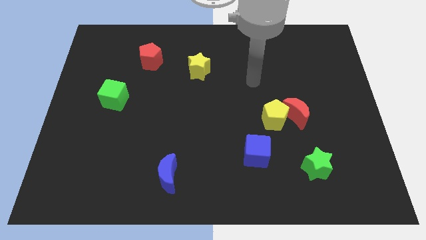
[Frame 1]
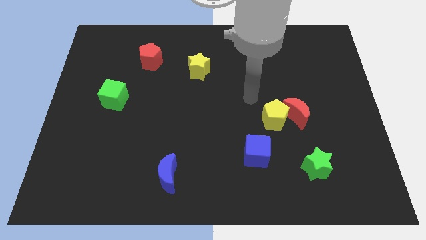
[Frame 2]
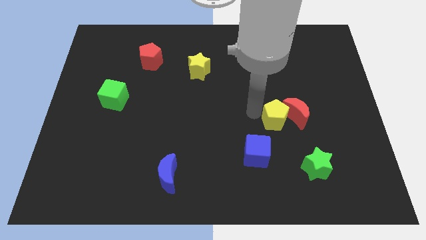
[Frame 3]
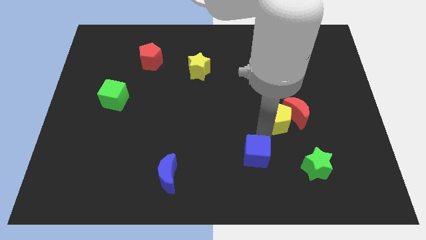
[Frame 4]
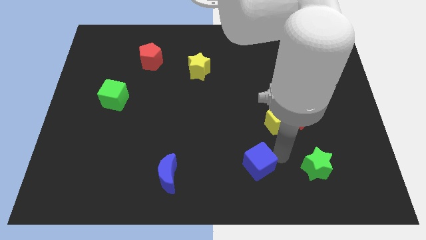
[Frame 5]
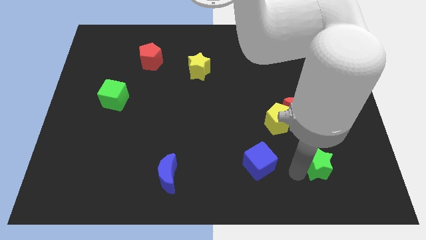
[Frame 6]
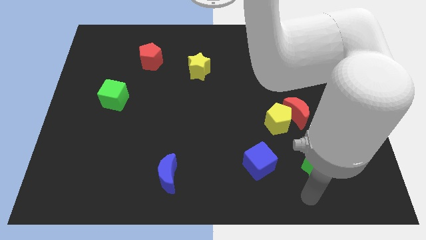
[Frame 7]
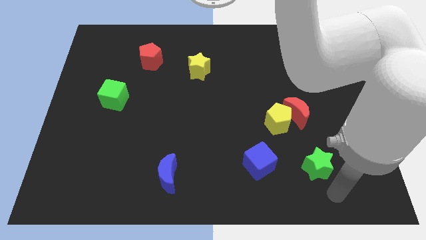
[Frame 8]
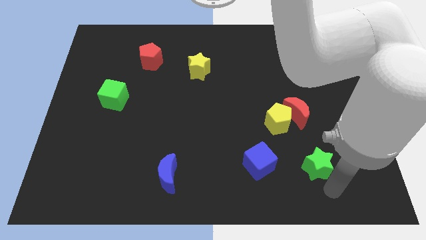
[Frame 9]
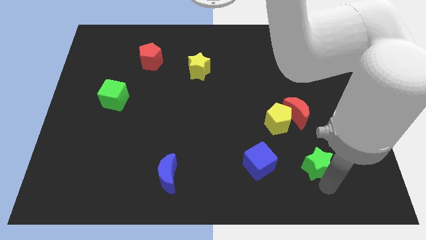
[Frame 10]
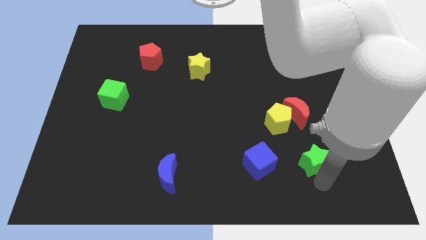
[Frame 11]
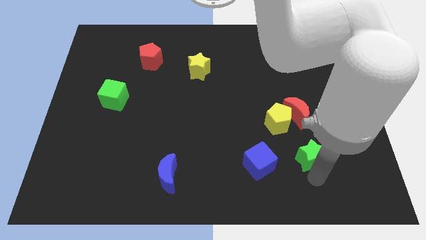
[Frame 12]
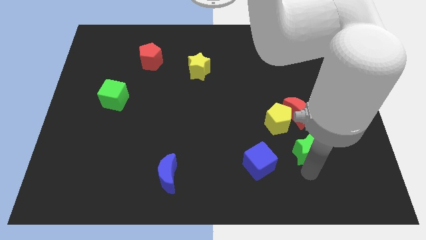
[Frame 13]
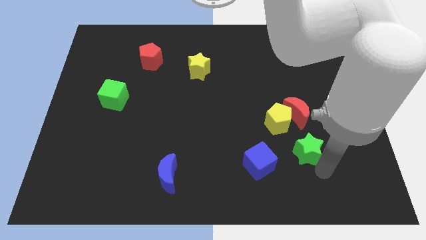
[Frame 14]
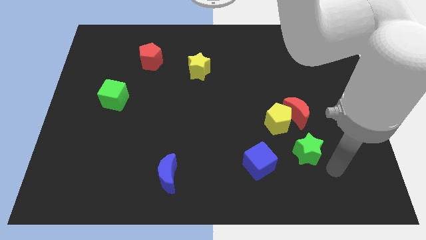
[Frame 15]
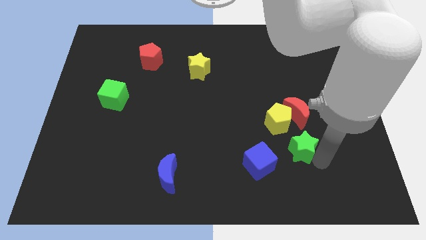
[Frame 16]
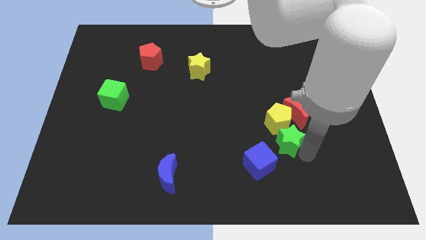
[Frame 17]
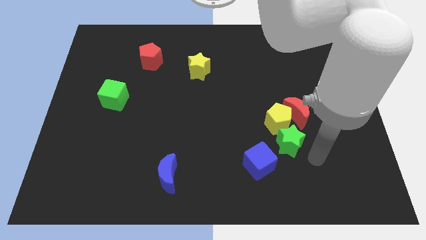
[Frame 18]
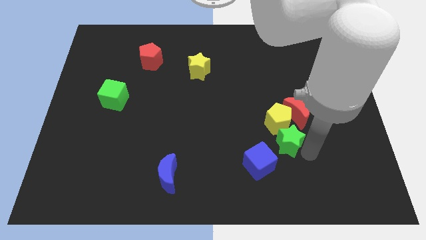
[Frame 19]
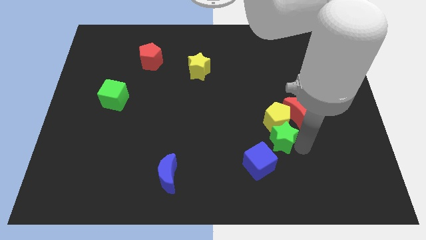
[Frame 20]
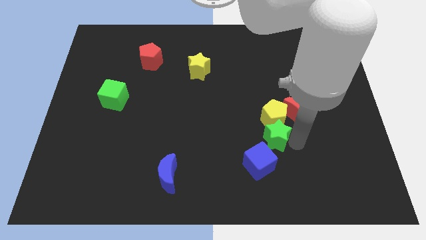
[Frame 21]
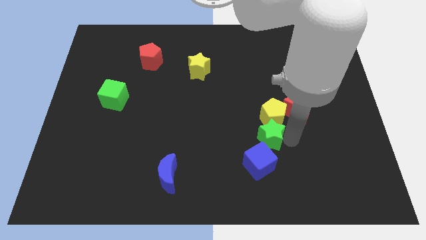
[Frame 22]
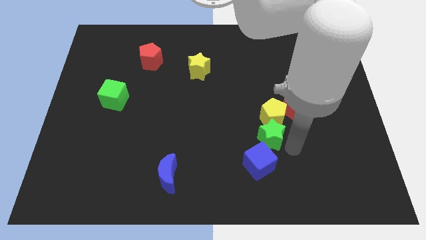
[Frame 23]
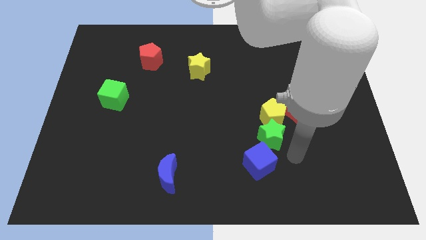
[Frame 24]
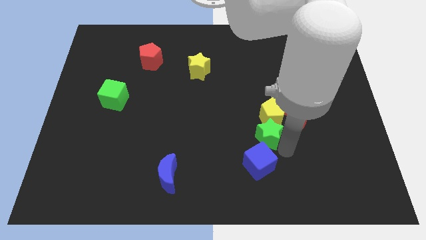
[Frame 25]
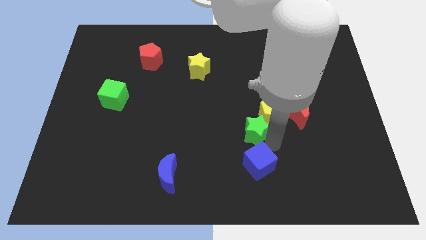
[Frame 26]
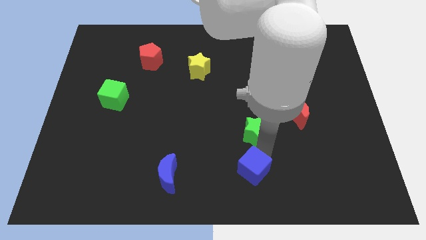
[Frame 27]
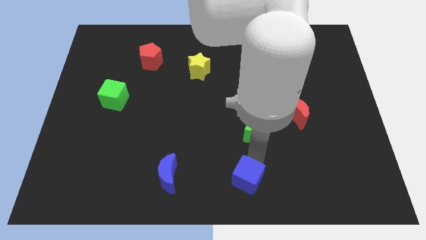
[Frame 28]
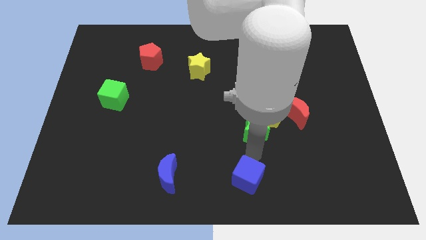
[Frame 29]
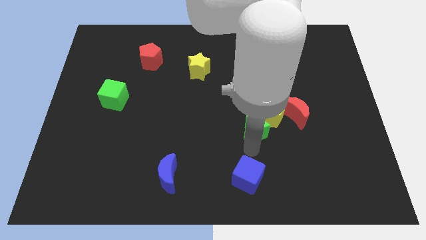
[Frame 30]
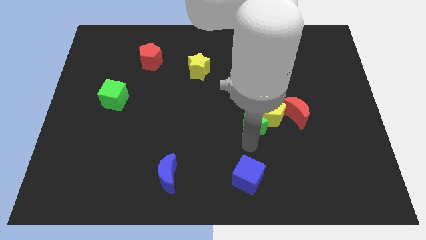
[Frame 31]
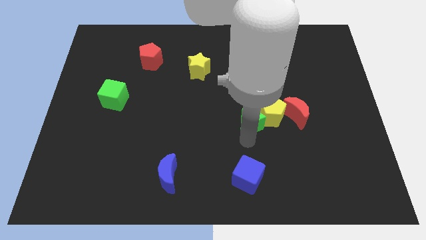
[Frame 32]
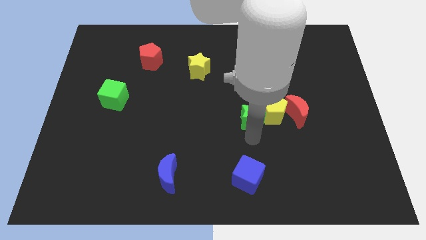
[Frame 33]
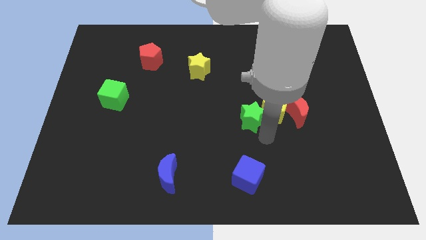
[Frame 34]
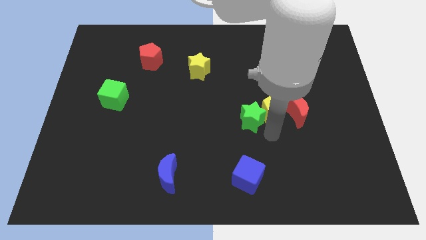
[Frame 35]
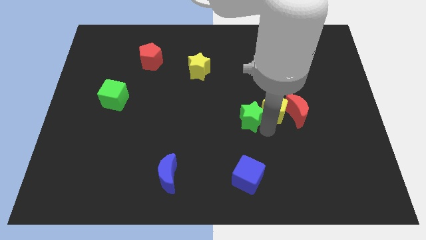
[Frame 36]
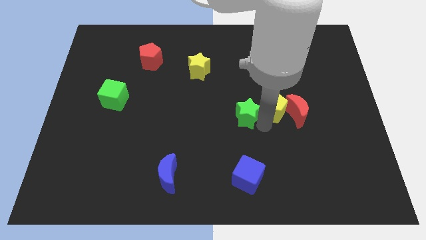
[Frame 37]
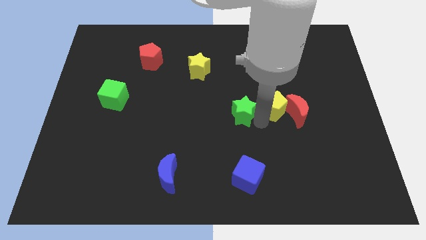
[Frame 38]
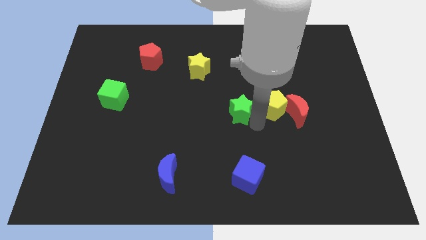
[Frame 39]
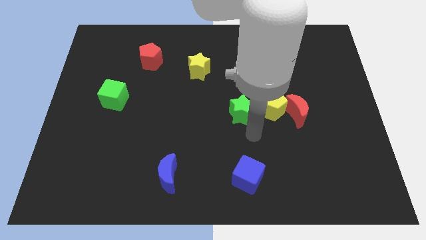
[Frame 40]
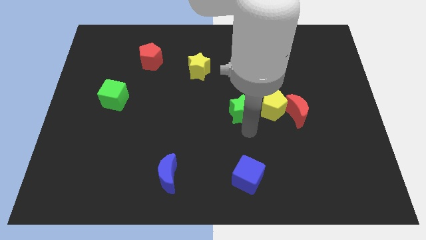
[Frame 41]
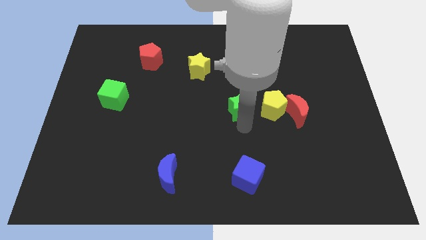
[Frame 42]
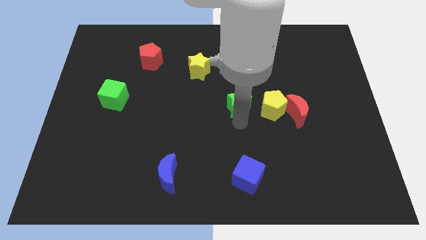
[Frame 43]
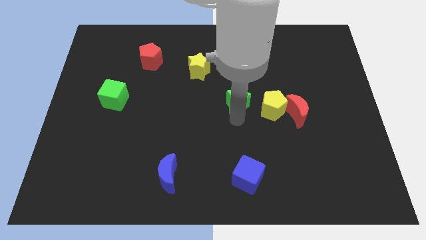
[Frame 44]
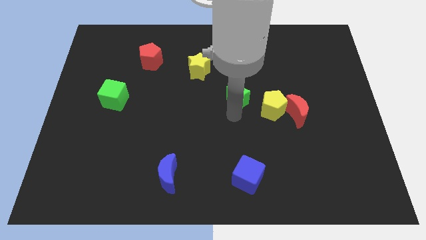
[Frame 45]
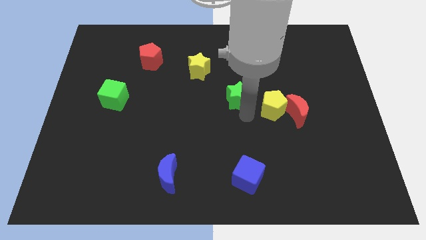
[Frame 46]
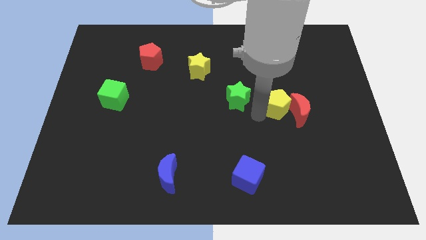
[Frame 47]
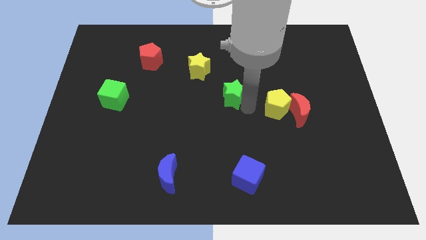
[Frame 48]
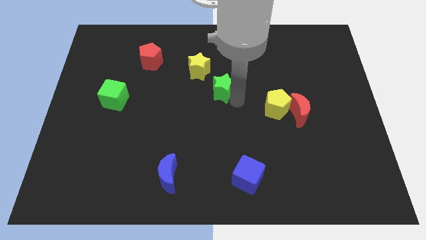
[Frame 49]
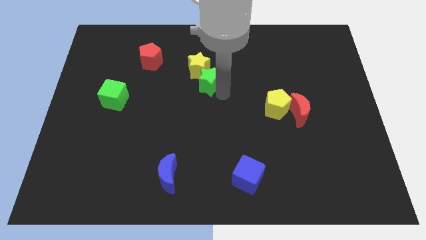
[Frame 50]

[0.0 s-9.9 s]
put the green star next to the yellow star

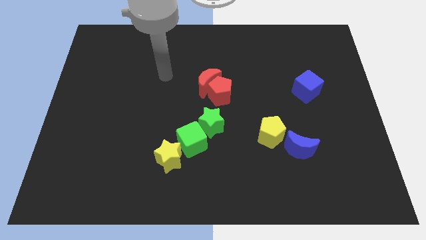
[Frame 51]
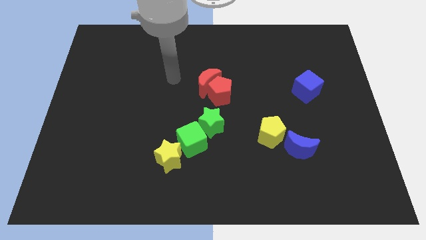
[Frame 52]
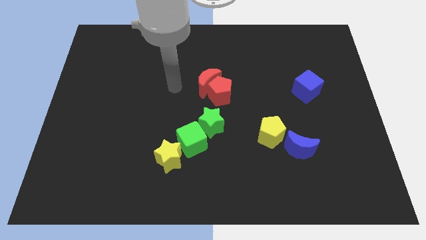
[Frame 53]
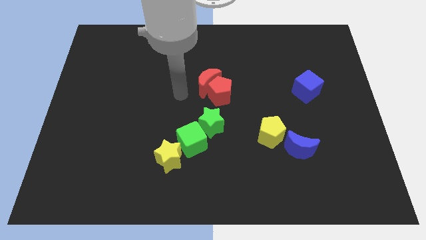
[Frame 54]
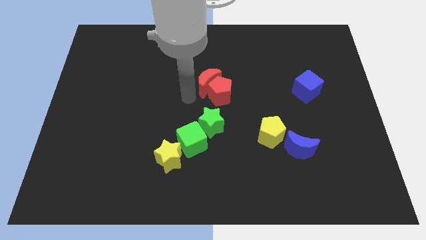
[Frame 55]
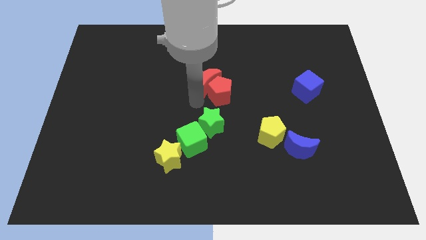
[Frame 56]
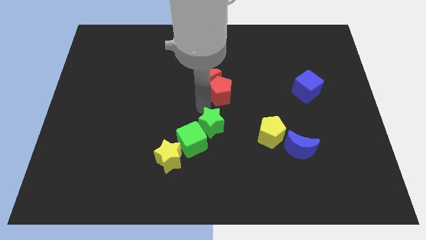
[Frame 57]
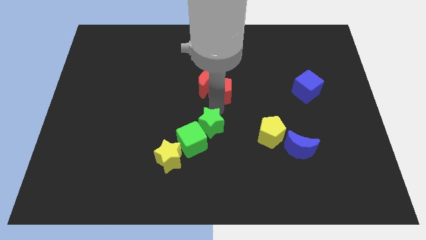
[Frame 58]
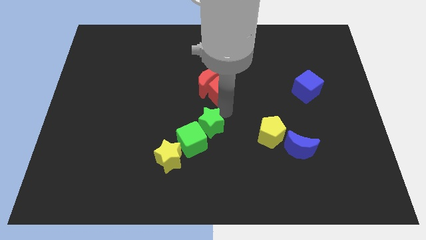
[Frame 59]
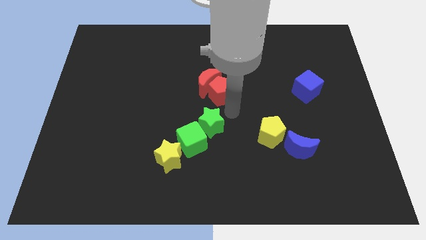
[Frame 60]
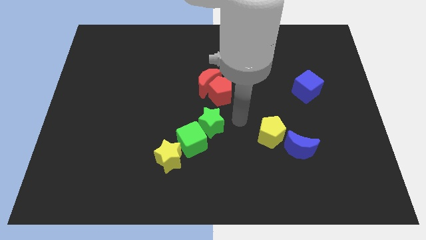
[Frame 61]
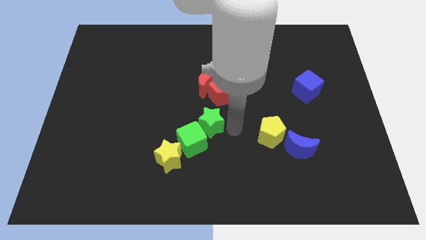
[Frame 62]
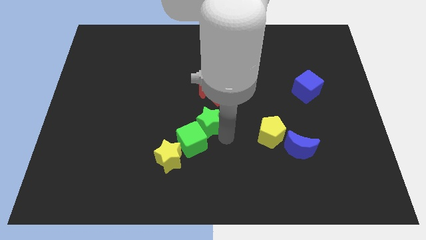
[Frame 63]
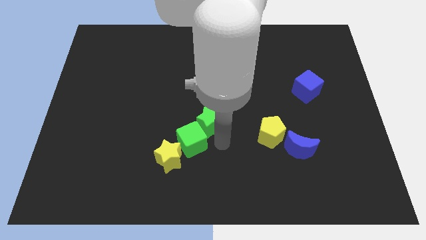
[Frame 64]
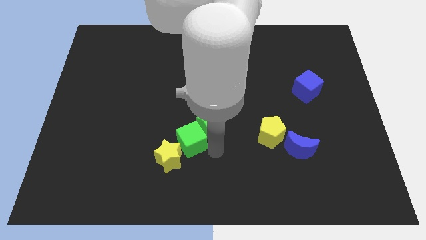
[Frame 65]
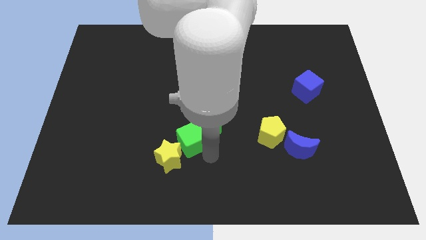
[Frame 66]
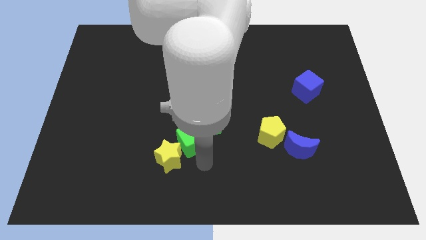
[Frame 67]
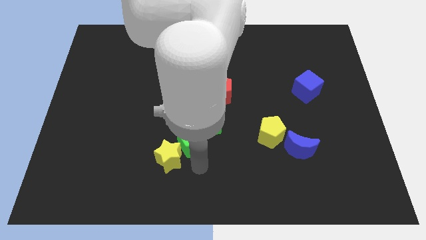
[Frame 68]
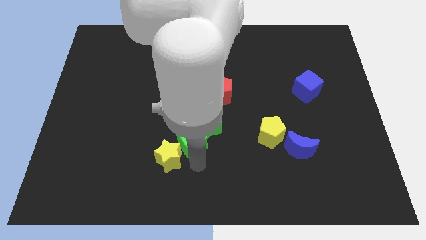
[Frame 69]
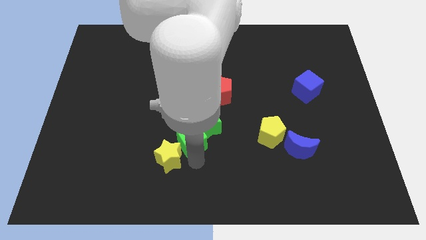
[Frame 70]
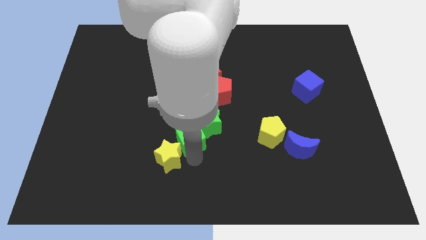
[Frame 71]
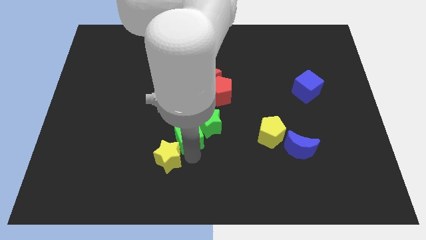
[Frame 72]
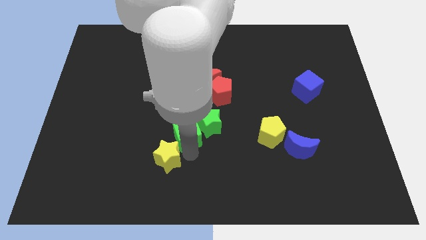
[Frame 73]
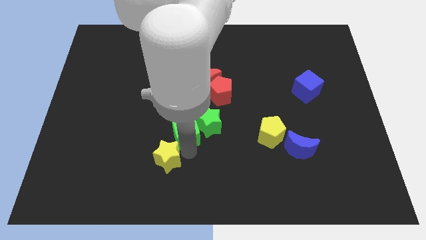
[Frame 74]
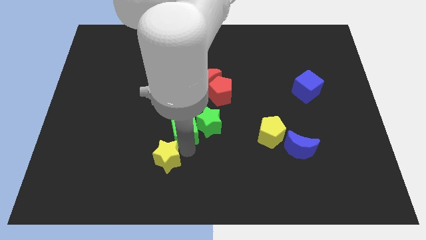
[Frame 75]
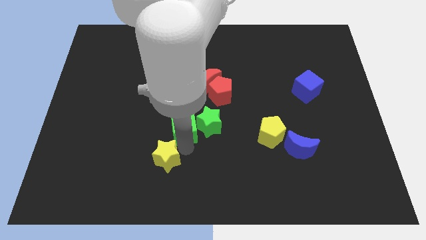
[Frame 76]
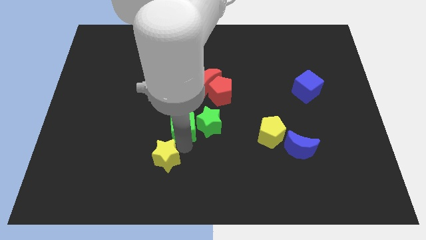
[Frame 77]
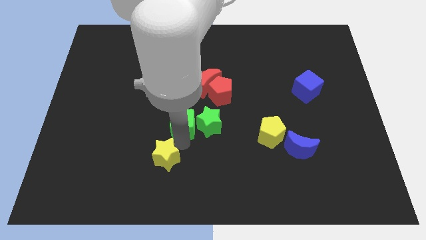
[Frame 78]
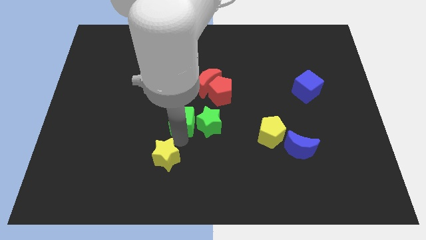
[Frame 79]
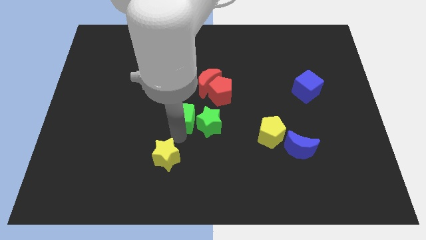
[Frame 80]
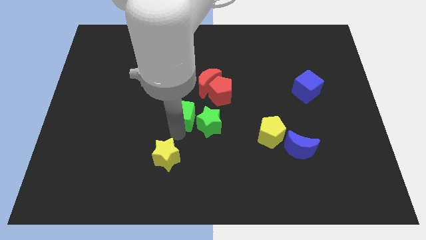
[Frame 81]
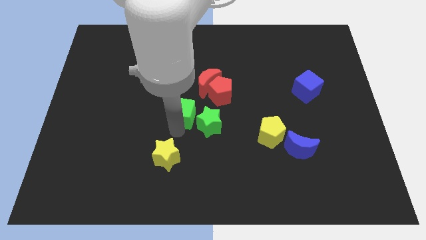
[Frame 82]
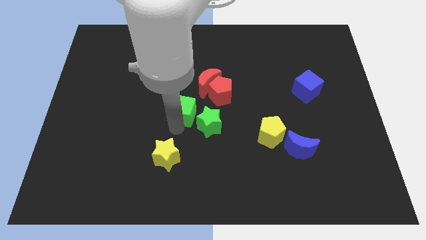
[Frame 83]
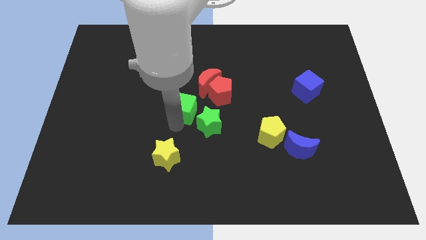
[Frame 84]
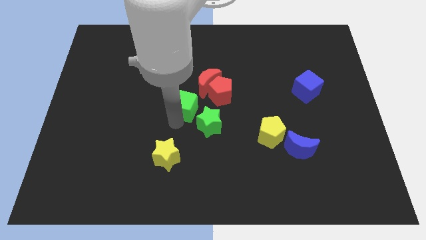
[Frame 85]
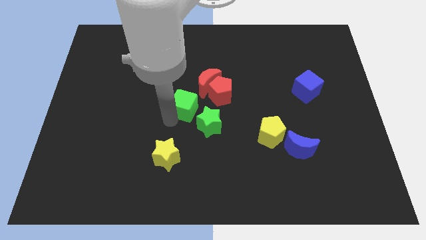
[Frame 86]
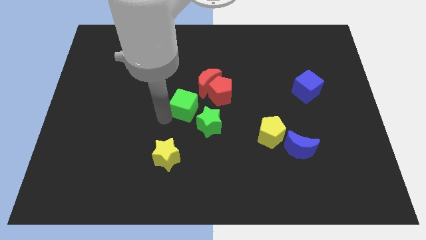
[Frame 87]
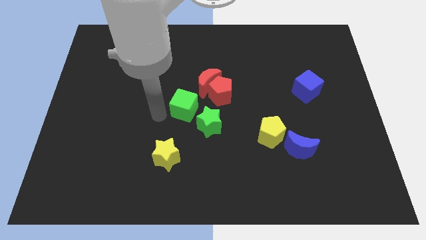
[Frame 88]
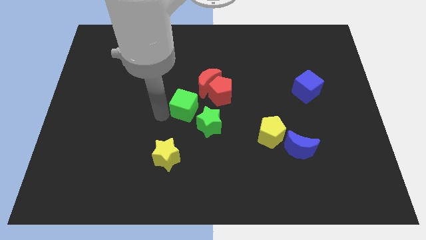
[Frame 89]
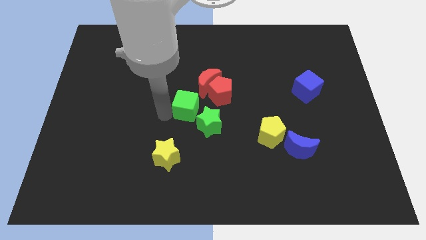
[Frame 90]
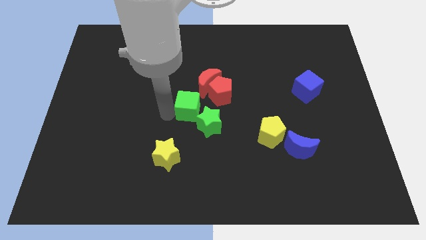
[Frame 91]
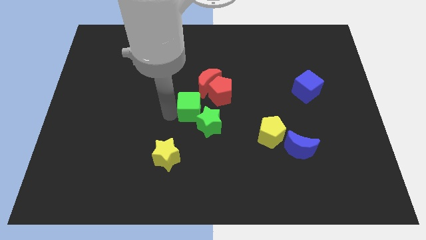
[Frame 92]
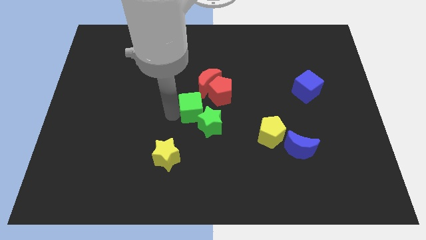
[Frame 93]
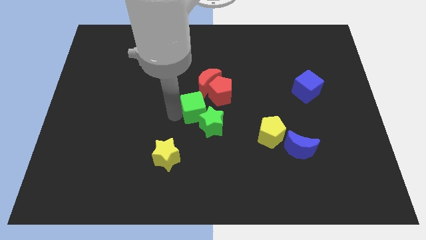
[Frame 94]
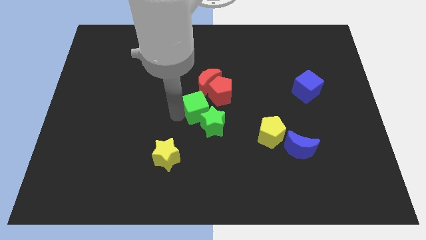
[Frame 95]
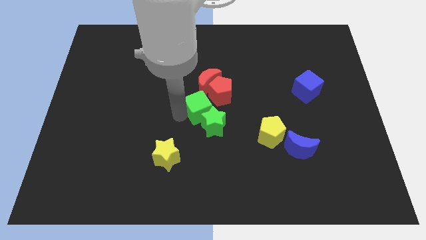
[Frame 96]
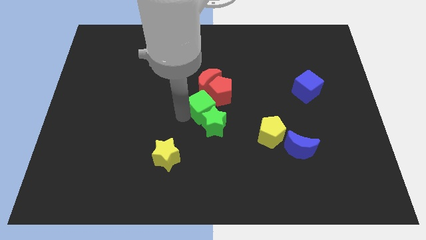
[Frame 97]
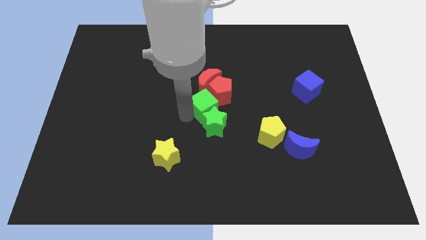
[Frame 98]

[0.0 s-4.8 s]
push the green cube towards the red pentagon
